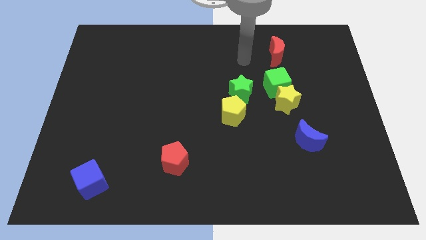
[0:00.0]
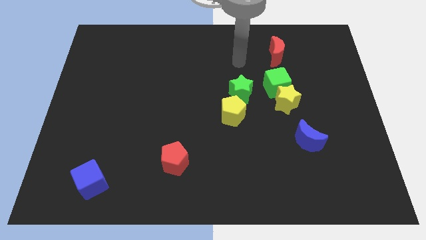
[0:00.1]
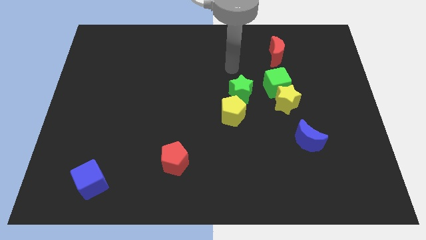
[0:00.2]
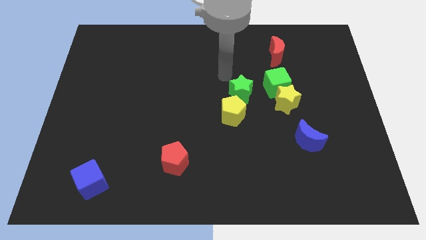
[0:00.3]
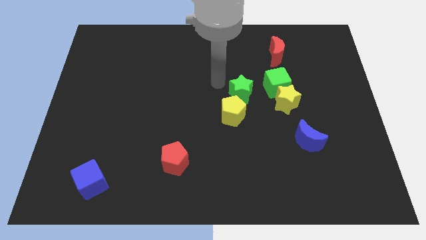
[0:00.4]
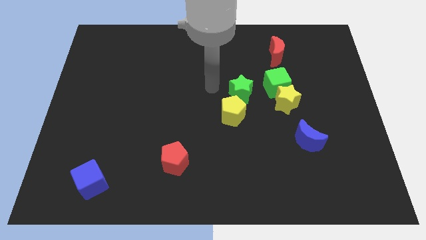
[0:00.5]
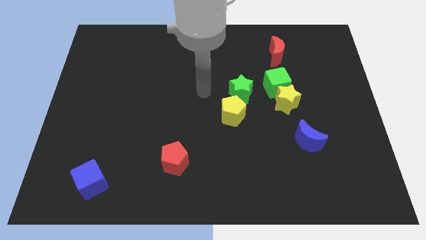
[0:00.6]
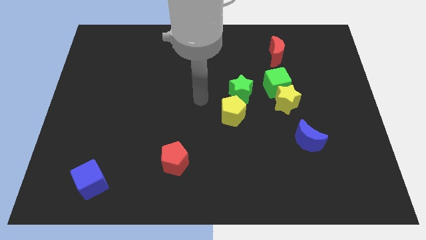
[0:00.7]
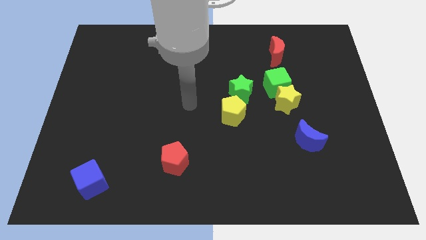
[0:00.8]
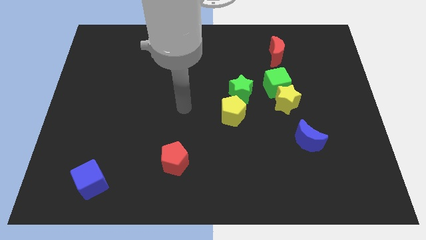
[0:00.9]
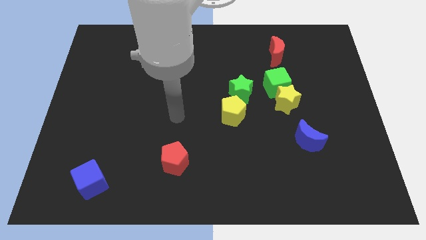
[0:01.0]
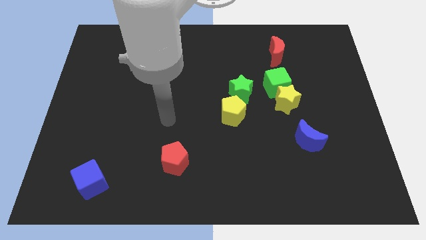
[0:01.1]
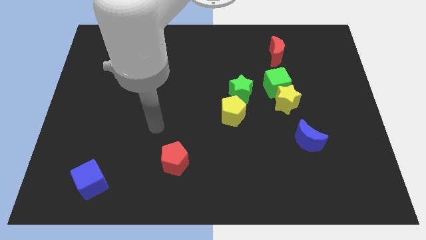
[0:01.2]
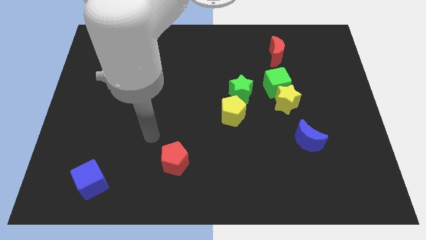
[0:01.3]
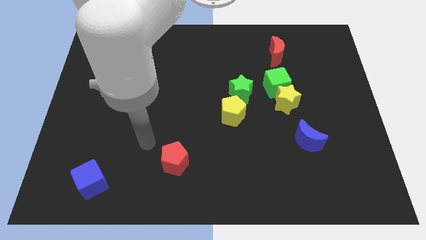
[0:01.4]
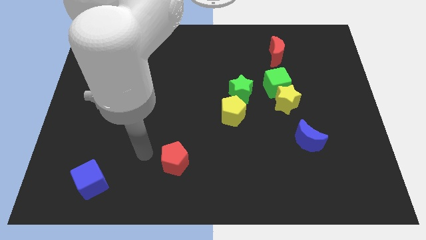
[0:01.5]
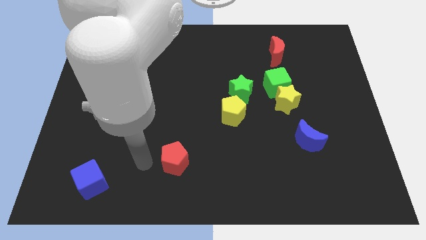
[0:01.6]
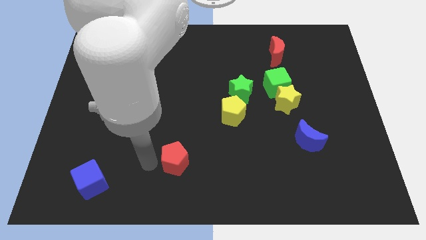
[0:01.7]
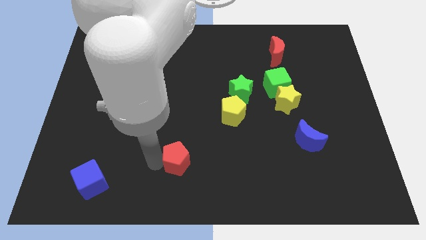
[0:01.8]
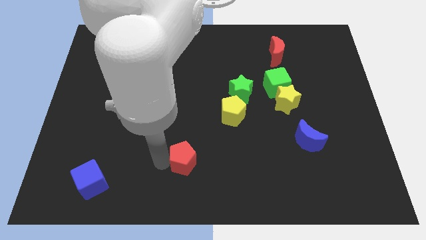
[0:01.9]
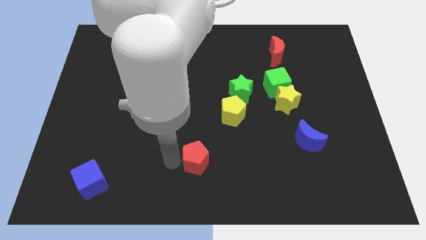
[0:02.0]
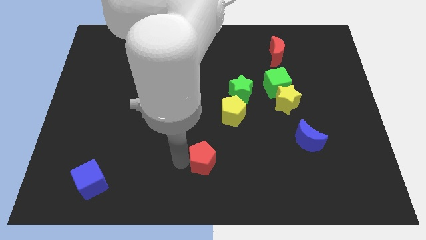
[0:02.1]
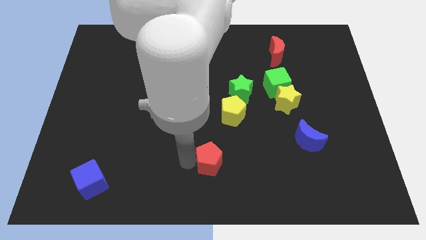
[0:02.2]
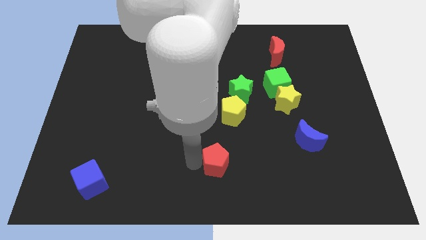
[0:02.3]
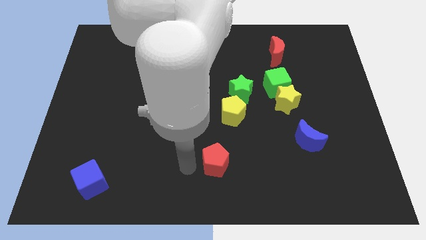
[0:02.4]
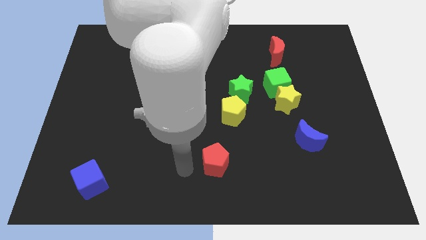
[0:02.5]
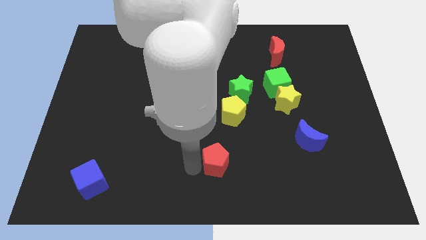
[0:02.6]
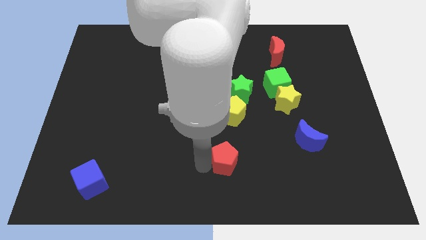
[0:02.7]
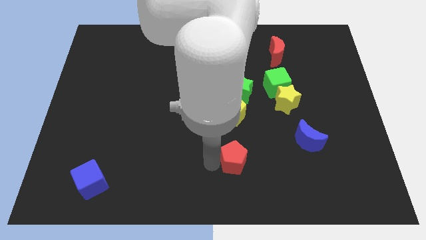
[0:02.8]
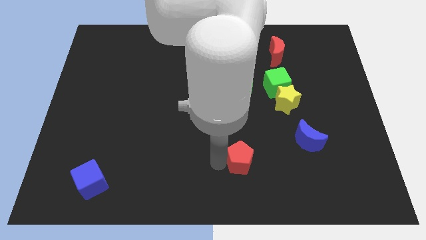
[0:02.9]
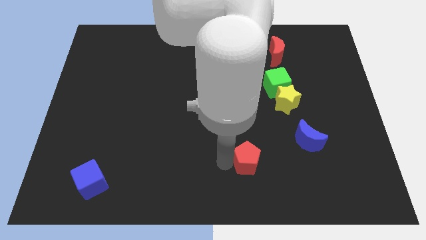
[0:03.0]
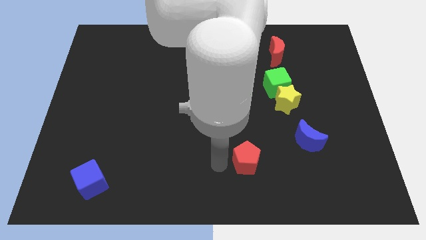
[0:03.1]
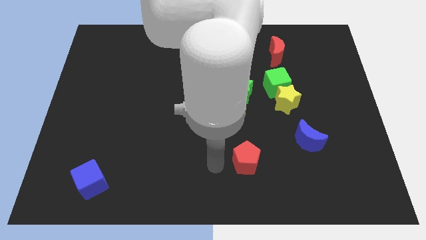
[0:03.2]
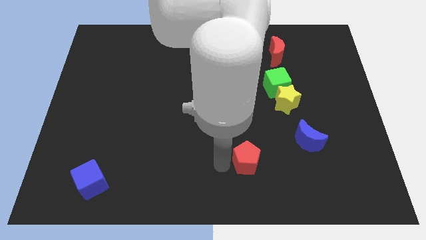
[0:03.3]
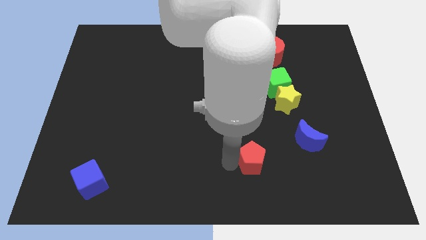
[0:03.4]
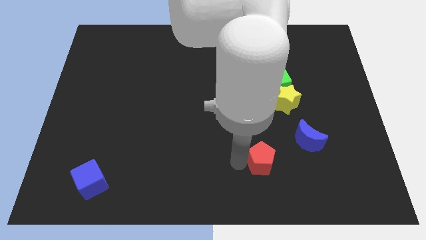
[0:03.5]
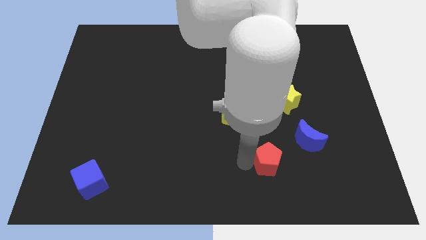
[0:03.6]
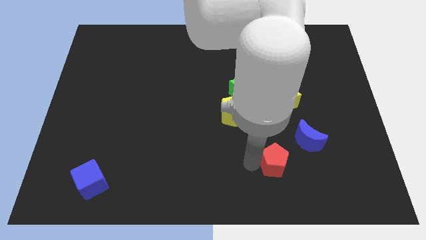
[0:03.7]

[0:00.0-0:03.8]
move the red pentagon right

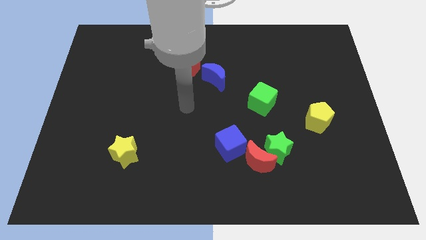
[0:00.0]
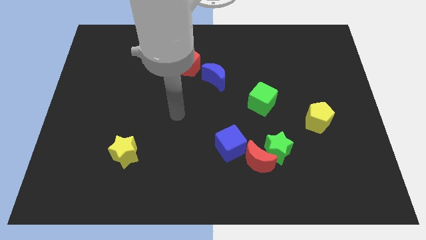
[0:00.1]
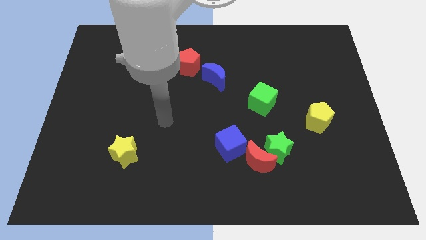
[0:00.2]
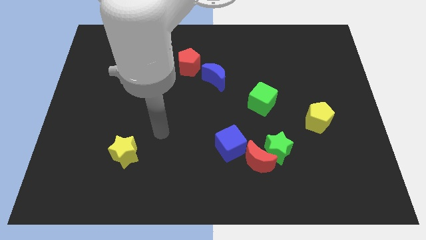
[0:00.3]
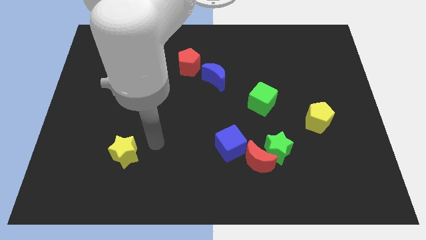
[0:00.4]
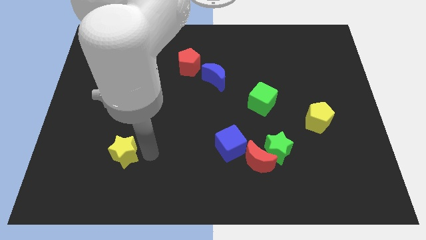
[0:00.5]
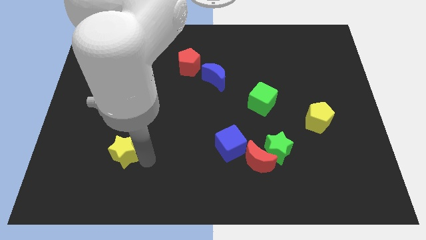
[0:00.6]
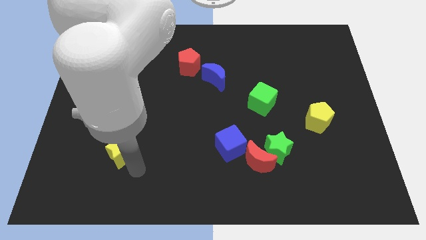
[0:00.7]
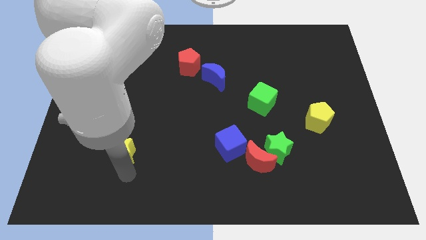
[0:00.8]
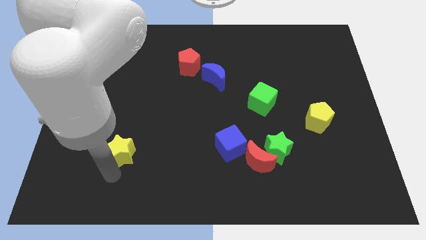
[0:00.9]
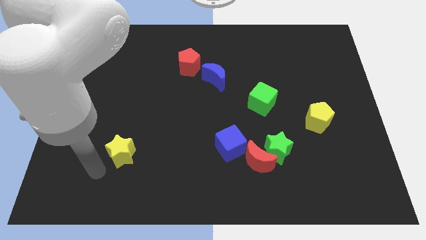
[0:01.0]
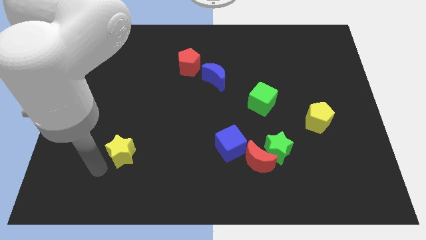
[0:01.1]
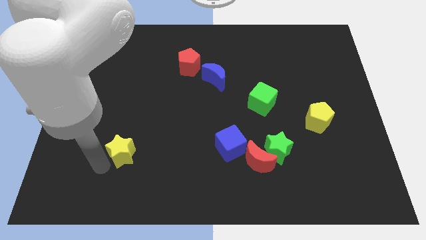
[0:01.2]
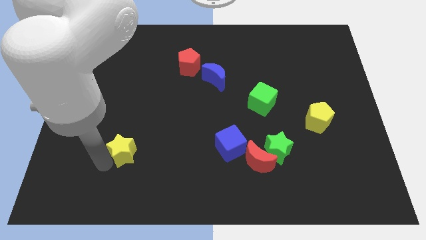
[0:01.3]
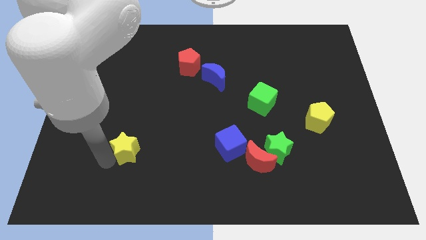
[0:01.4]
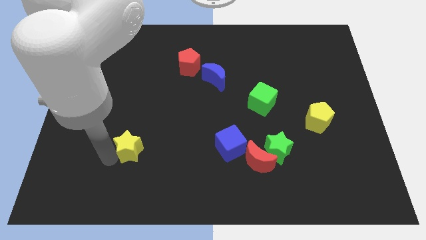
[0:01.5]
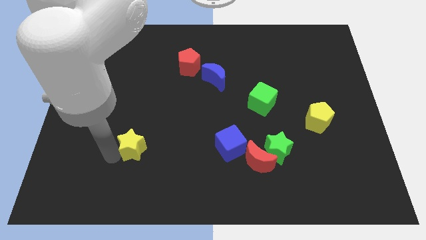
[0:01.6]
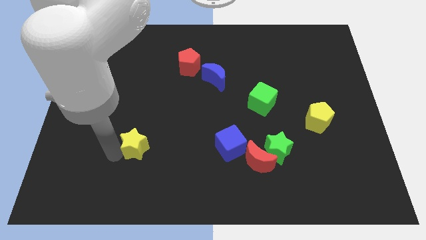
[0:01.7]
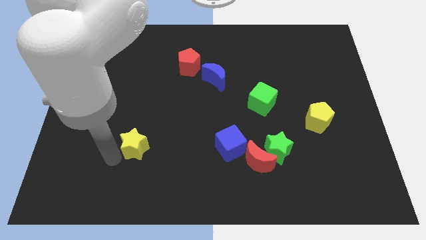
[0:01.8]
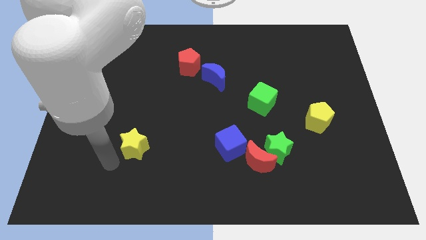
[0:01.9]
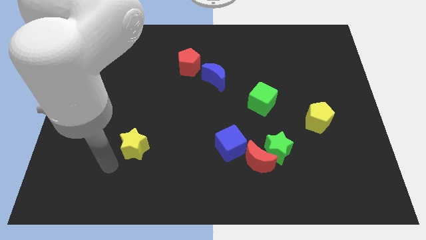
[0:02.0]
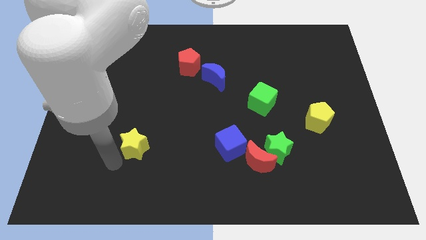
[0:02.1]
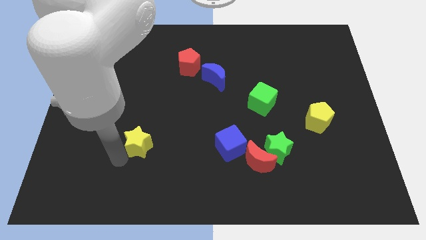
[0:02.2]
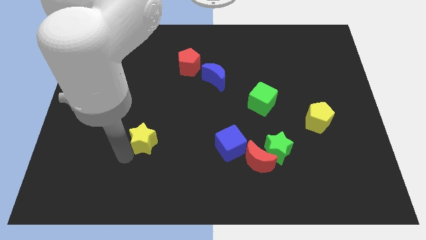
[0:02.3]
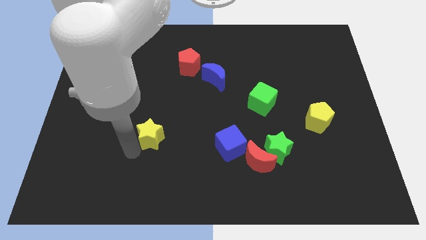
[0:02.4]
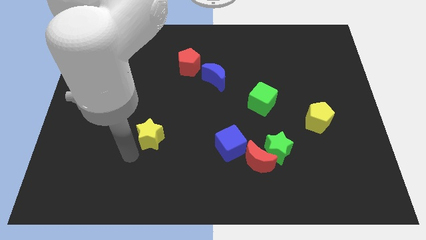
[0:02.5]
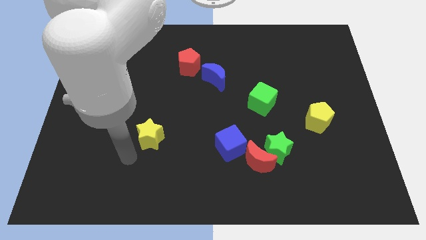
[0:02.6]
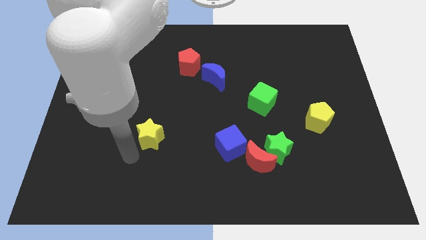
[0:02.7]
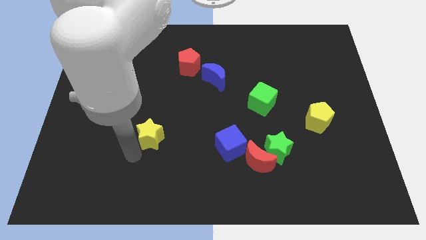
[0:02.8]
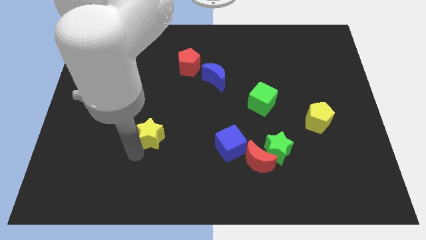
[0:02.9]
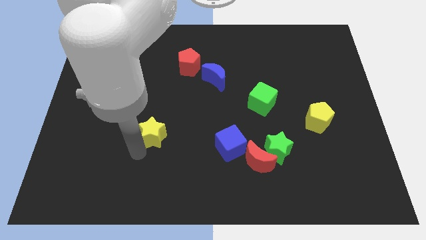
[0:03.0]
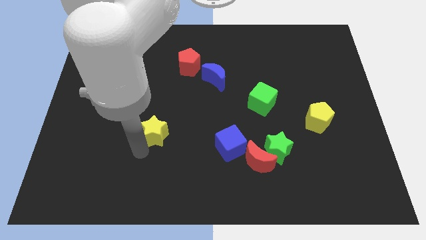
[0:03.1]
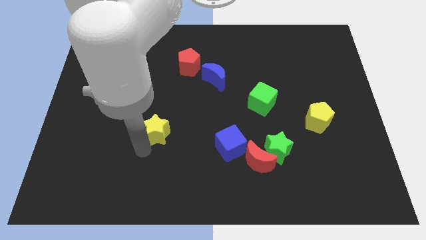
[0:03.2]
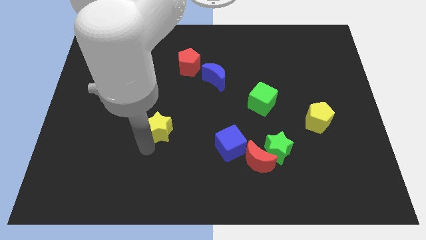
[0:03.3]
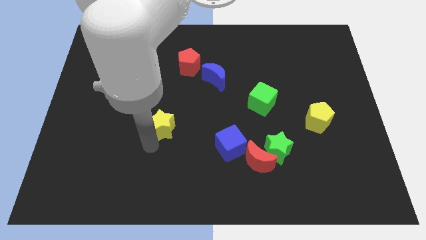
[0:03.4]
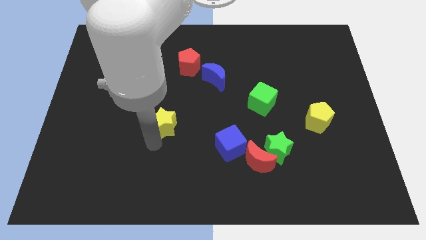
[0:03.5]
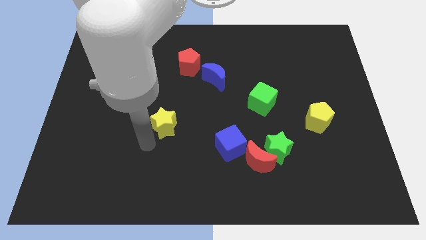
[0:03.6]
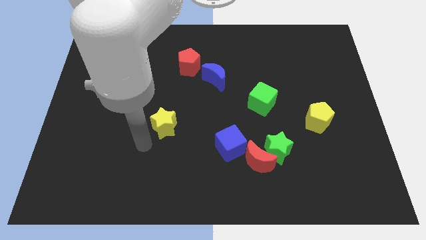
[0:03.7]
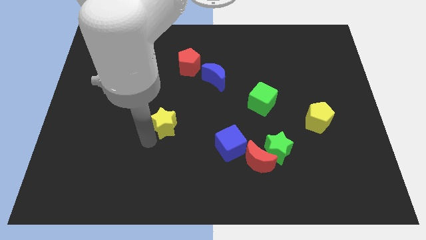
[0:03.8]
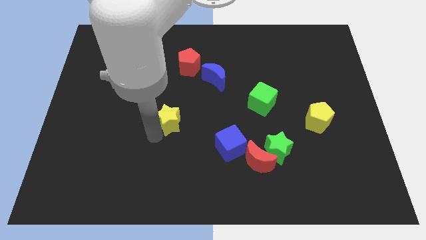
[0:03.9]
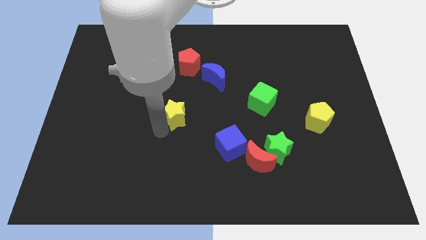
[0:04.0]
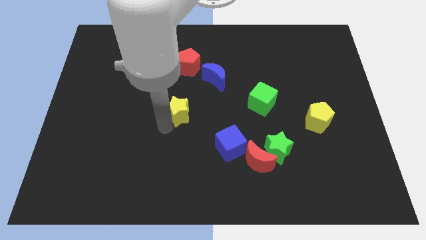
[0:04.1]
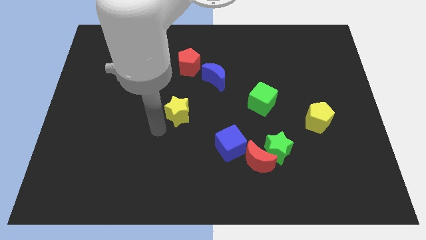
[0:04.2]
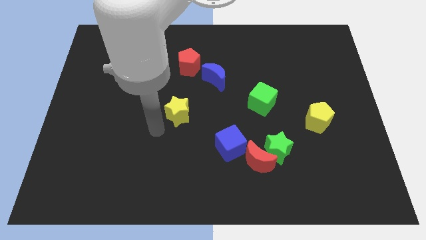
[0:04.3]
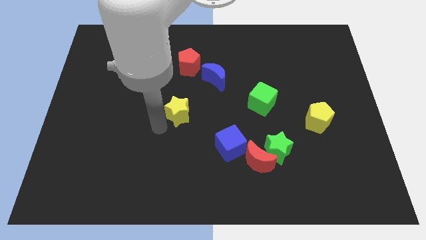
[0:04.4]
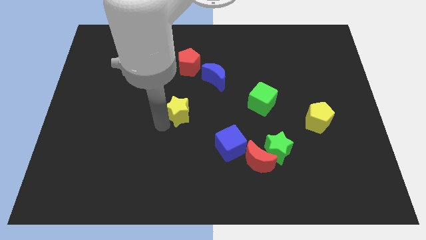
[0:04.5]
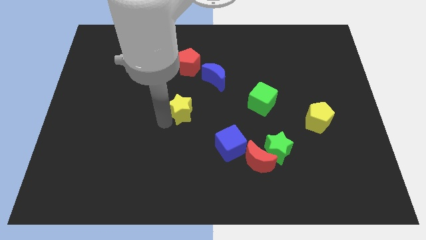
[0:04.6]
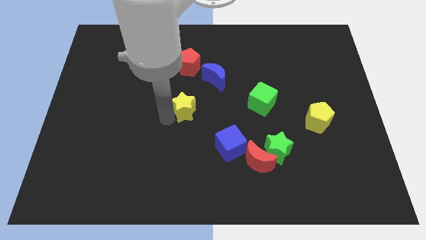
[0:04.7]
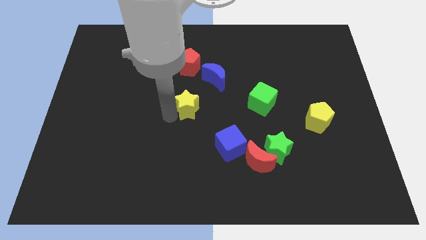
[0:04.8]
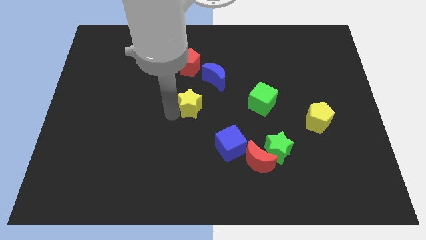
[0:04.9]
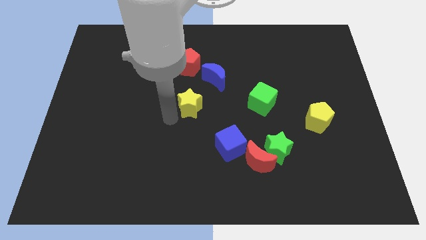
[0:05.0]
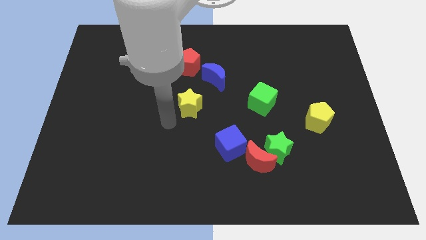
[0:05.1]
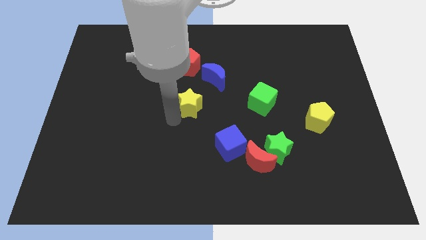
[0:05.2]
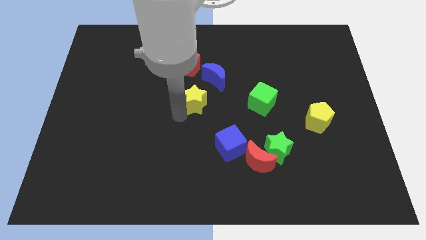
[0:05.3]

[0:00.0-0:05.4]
slide the yellow star diagonally up and right
